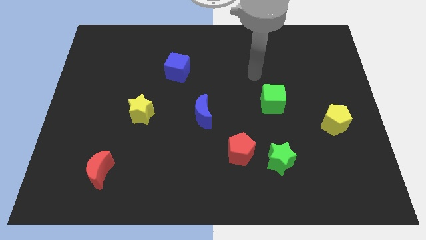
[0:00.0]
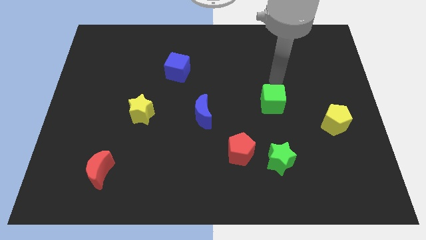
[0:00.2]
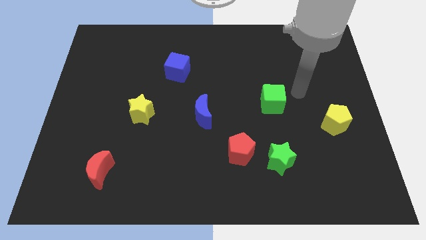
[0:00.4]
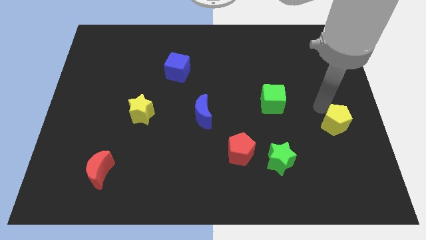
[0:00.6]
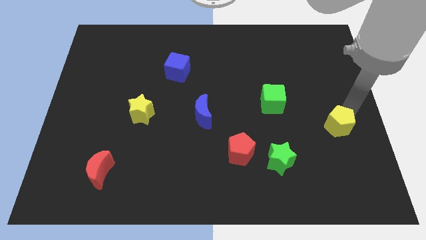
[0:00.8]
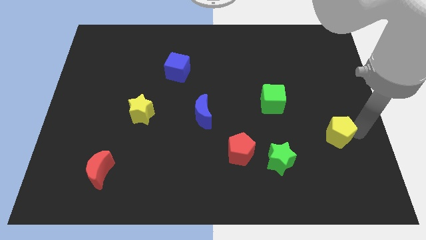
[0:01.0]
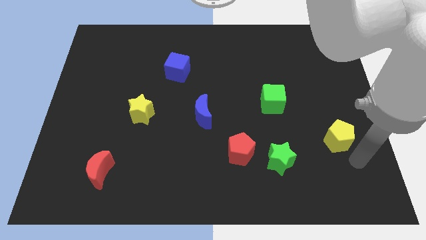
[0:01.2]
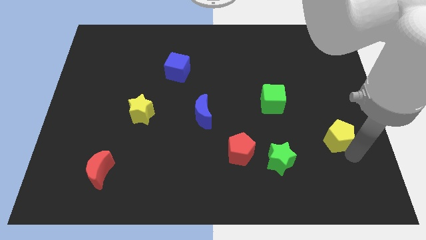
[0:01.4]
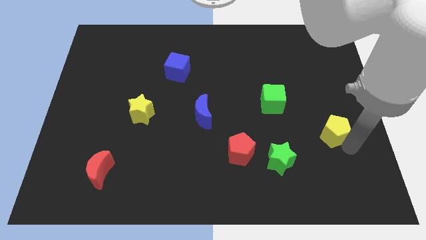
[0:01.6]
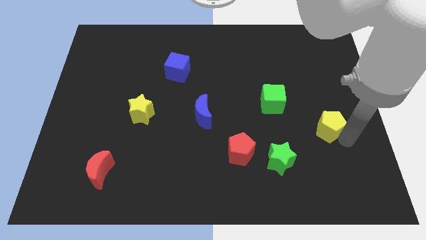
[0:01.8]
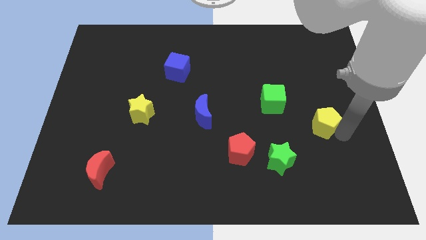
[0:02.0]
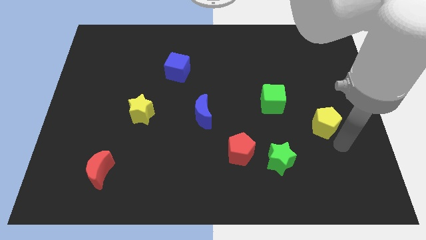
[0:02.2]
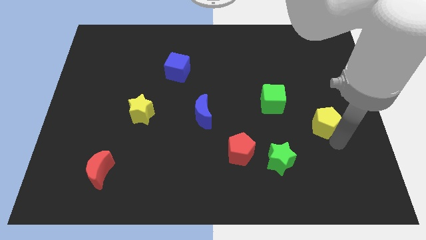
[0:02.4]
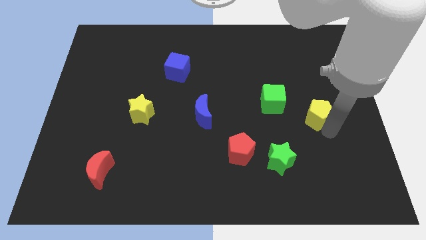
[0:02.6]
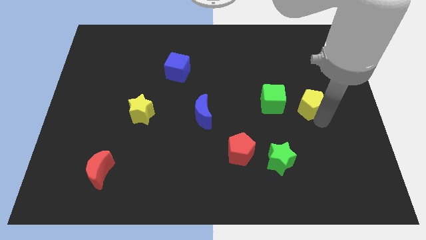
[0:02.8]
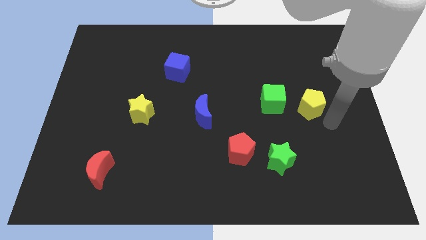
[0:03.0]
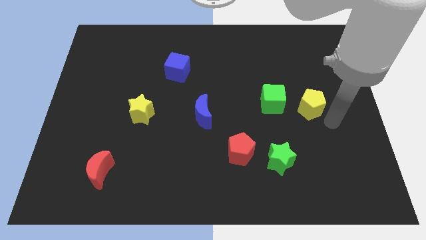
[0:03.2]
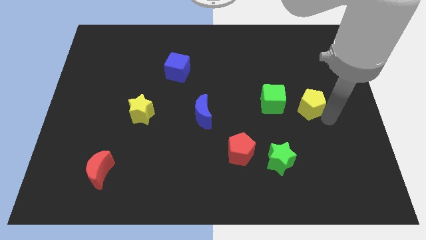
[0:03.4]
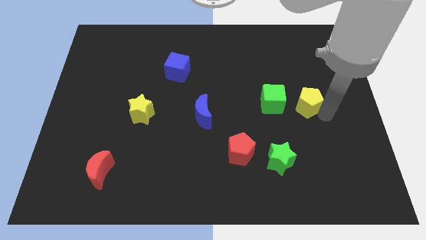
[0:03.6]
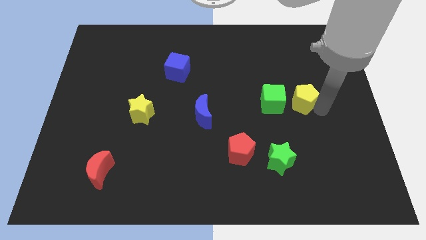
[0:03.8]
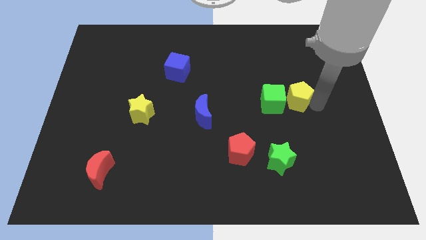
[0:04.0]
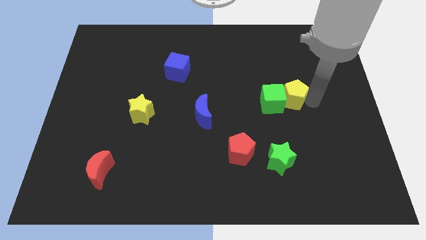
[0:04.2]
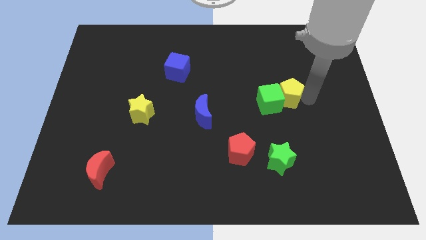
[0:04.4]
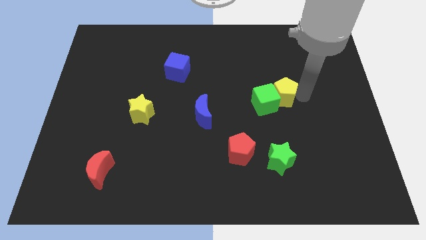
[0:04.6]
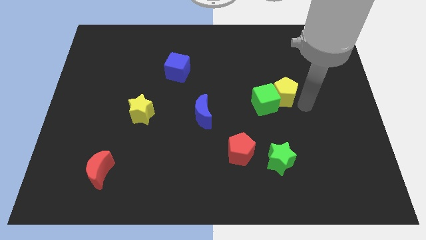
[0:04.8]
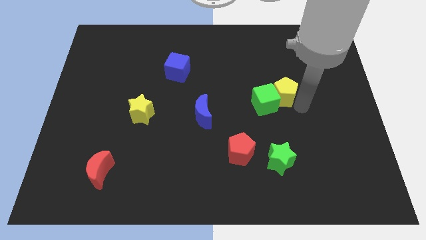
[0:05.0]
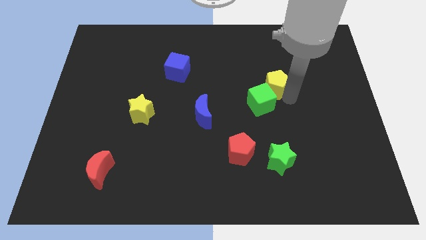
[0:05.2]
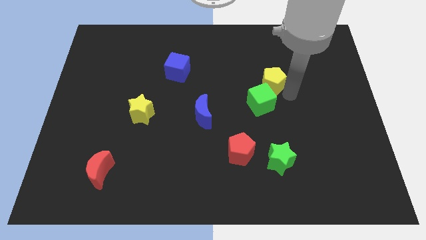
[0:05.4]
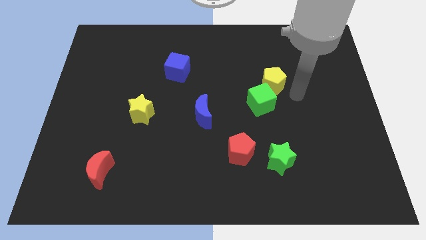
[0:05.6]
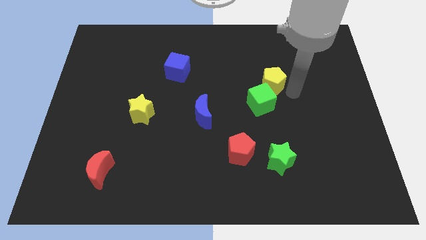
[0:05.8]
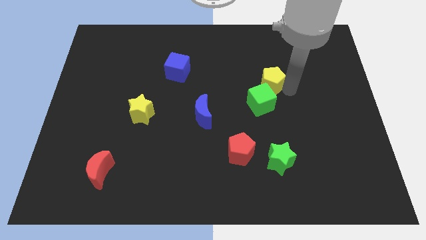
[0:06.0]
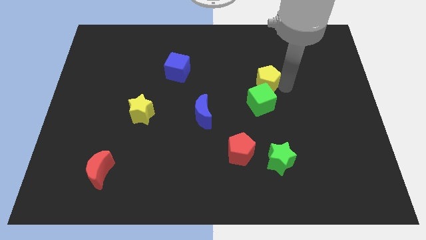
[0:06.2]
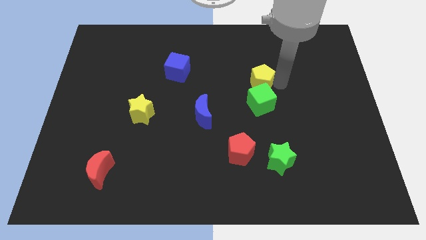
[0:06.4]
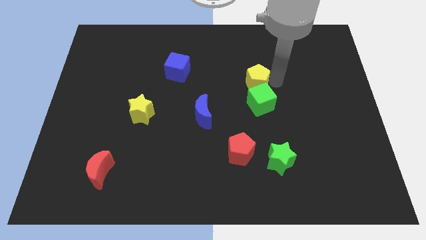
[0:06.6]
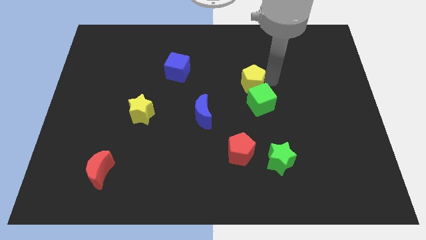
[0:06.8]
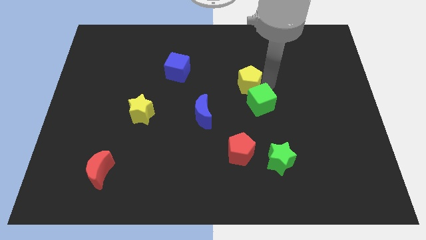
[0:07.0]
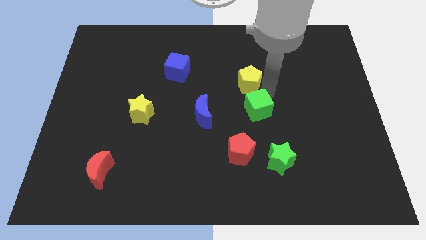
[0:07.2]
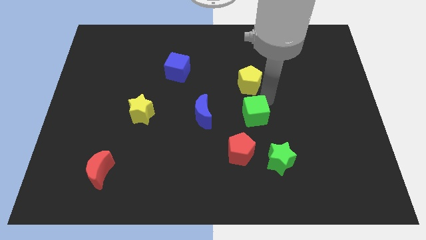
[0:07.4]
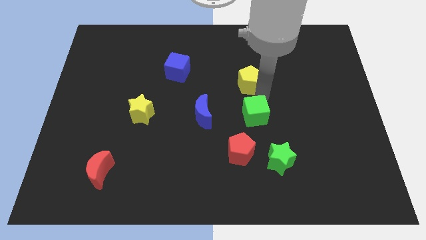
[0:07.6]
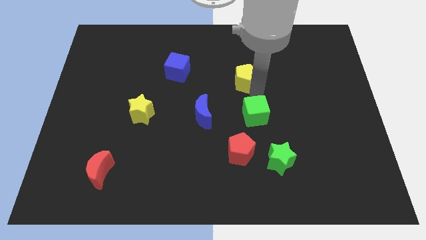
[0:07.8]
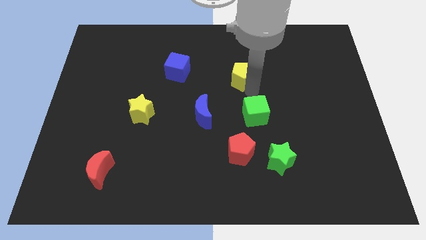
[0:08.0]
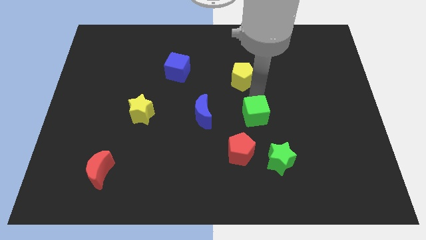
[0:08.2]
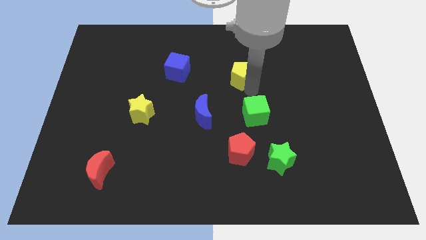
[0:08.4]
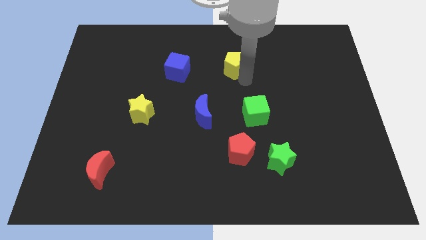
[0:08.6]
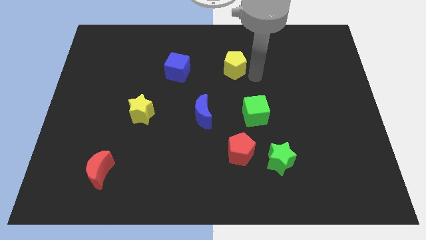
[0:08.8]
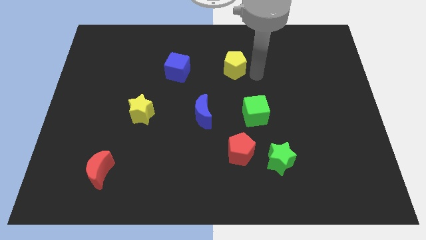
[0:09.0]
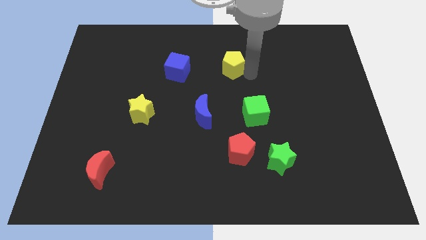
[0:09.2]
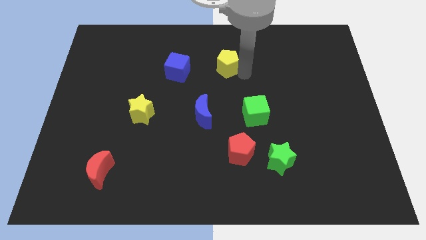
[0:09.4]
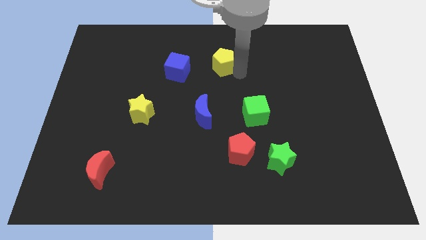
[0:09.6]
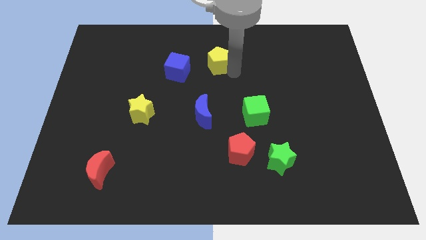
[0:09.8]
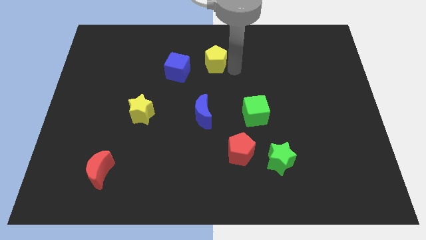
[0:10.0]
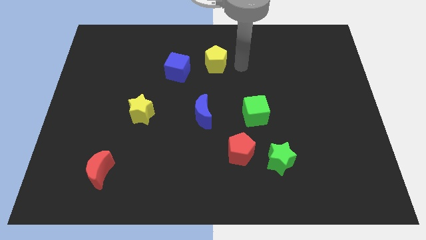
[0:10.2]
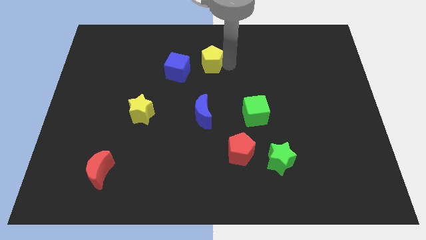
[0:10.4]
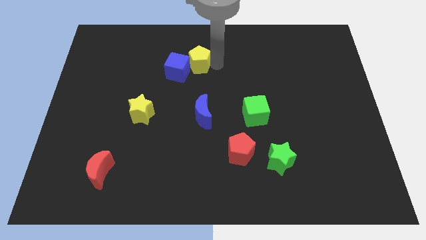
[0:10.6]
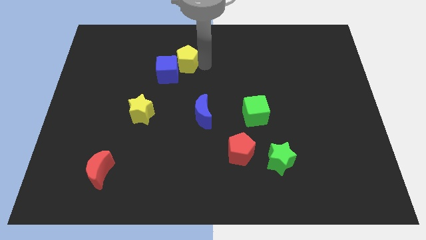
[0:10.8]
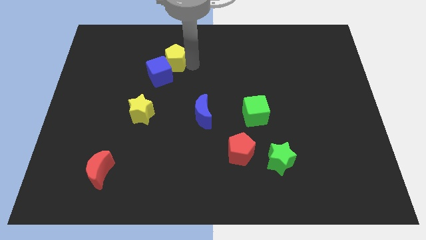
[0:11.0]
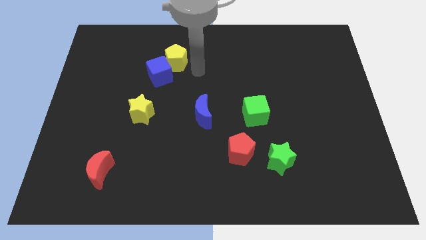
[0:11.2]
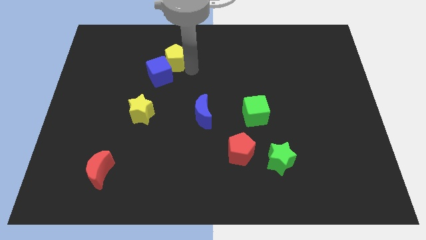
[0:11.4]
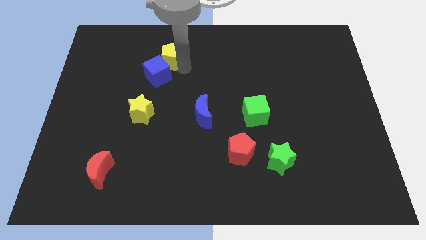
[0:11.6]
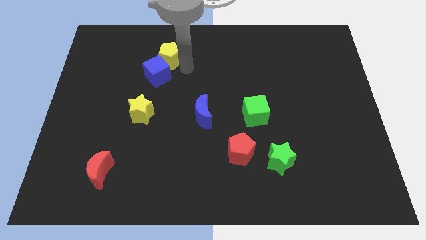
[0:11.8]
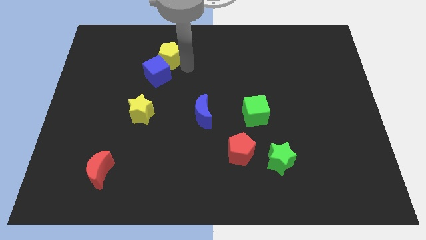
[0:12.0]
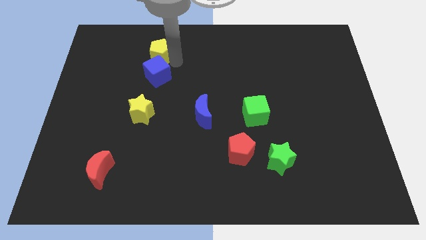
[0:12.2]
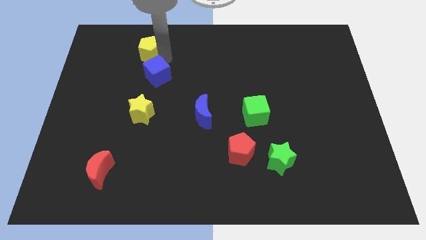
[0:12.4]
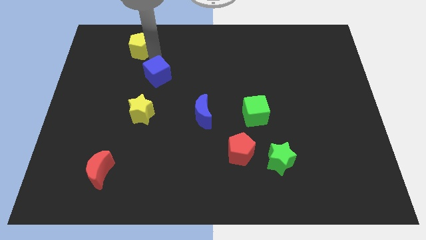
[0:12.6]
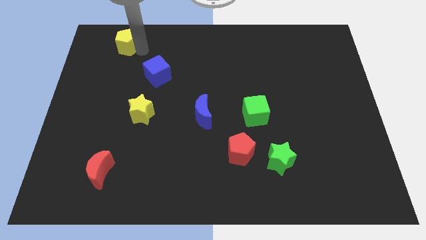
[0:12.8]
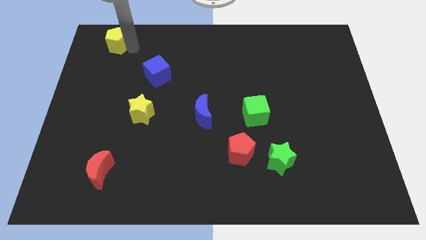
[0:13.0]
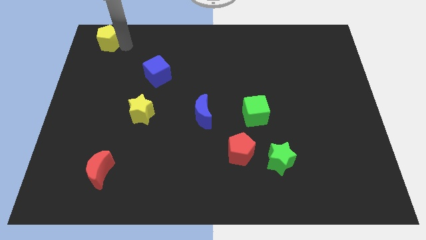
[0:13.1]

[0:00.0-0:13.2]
slide the yellow pentagon to the top left of the board
